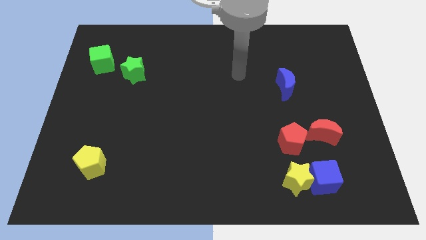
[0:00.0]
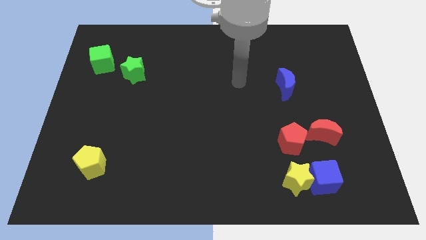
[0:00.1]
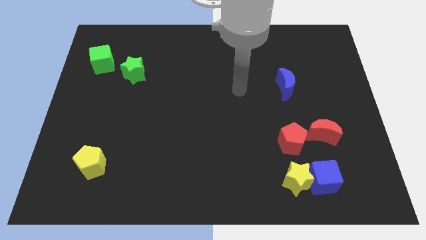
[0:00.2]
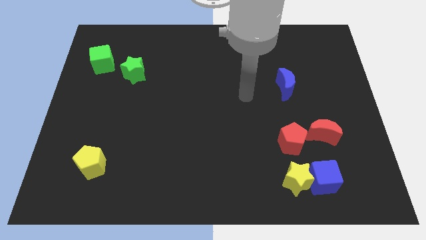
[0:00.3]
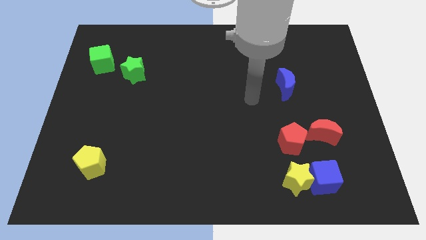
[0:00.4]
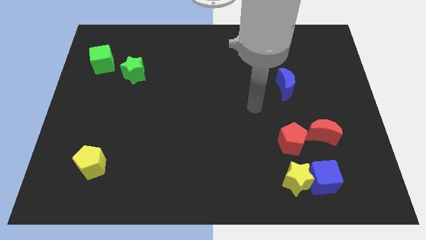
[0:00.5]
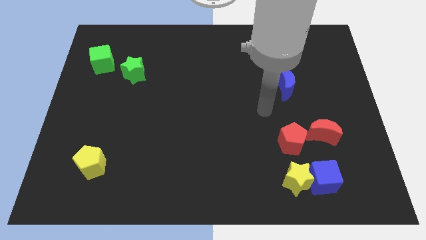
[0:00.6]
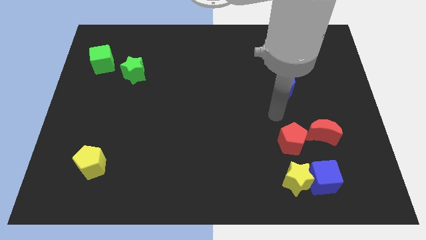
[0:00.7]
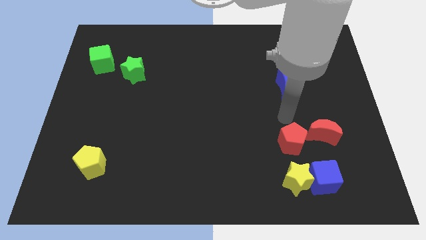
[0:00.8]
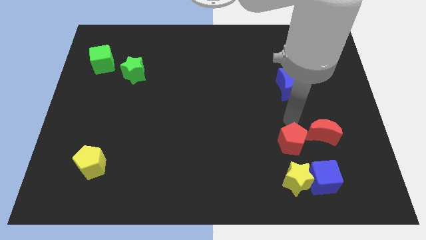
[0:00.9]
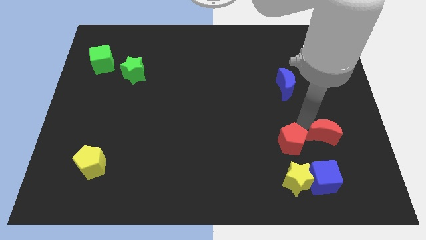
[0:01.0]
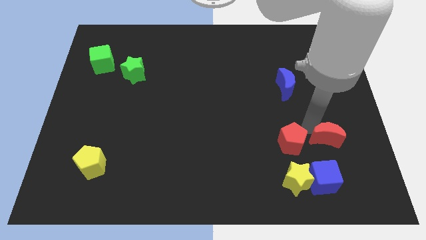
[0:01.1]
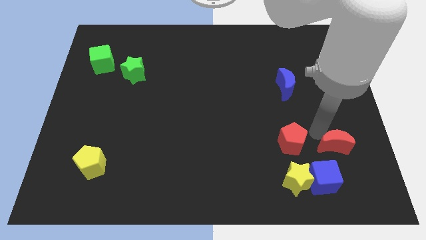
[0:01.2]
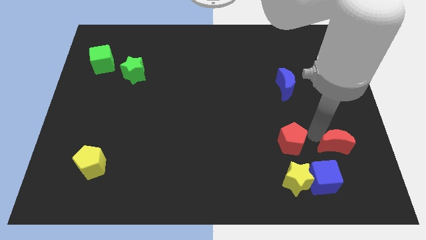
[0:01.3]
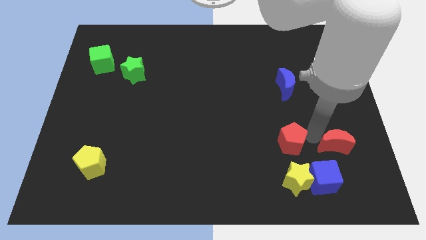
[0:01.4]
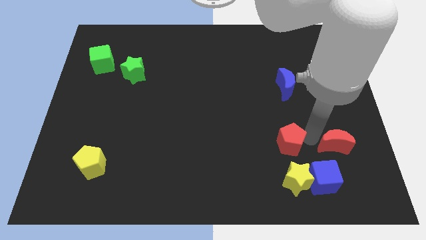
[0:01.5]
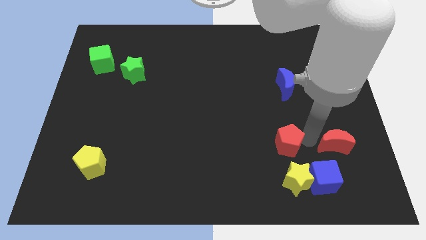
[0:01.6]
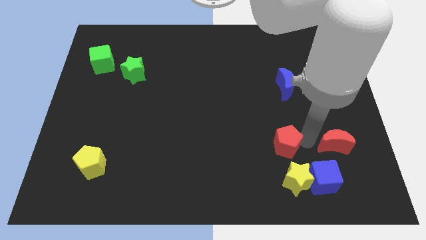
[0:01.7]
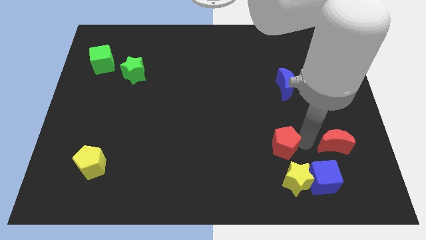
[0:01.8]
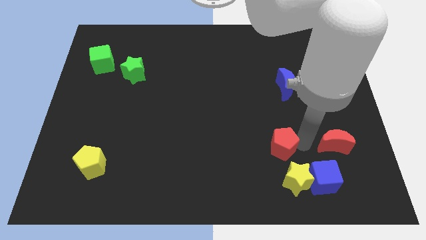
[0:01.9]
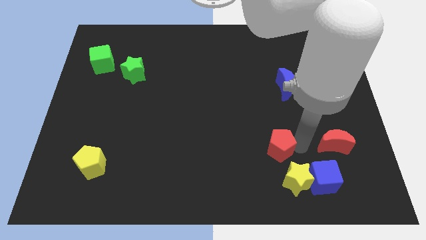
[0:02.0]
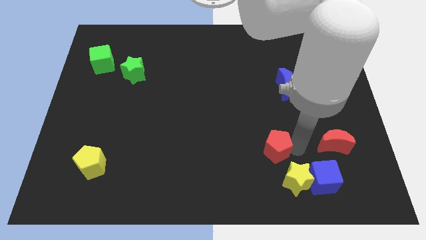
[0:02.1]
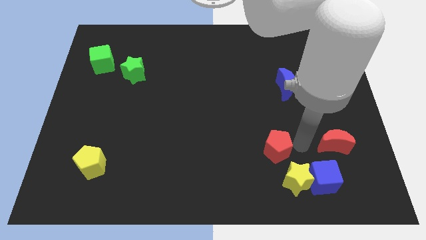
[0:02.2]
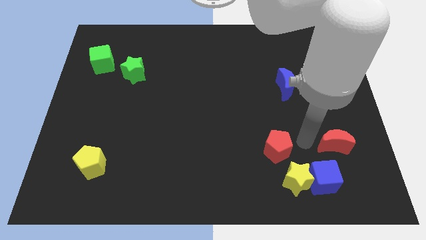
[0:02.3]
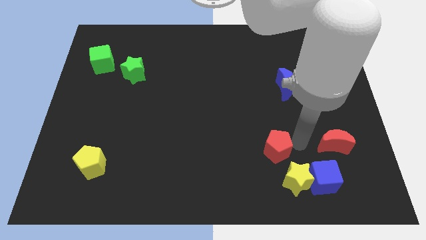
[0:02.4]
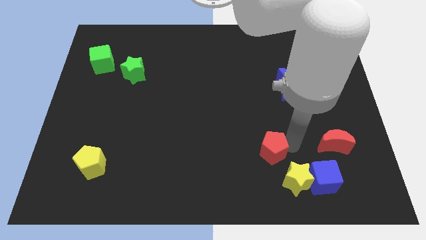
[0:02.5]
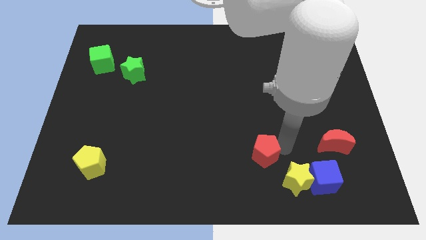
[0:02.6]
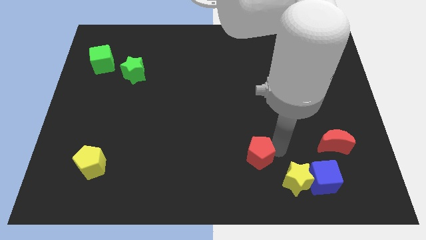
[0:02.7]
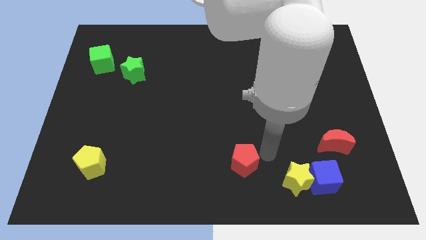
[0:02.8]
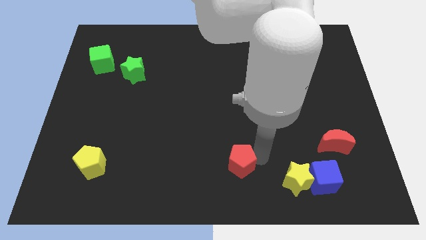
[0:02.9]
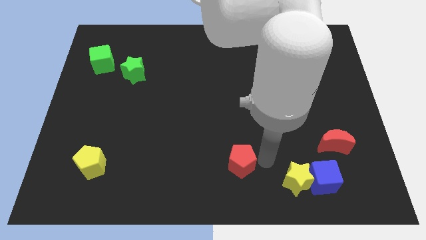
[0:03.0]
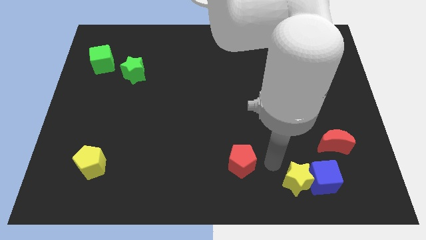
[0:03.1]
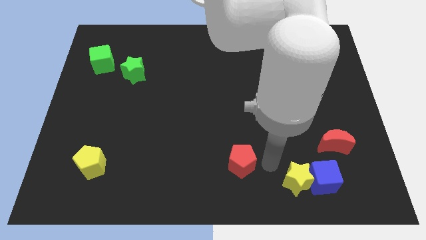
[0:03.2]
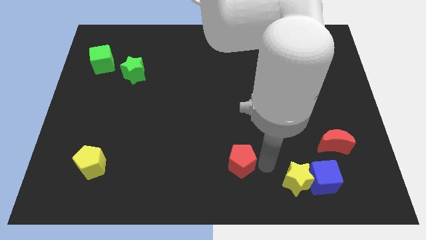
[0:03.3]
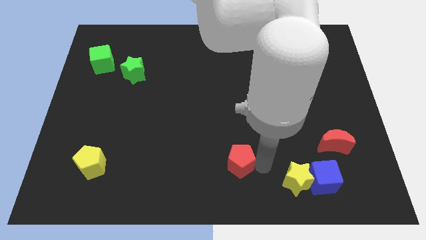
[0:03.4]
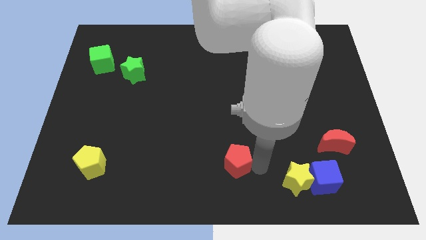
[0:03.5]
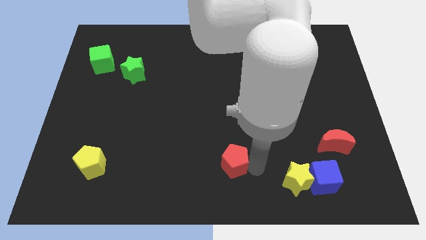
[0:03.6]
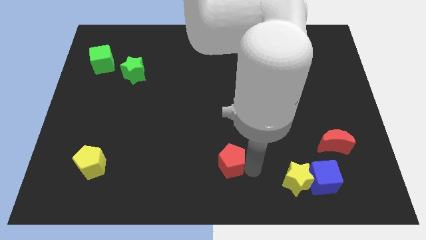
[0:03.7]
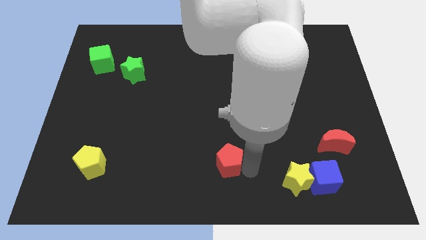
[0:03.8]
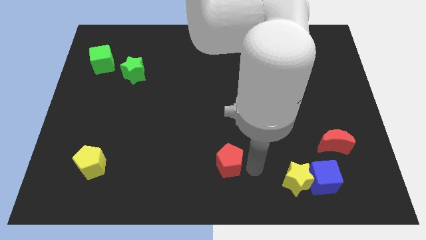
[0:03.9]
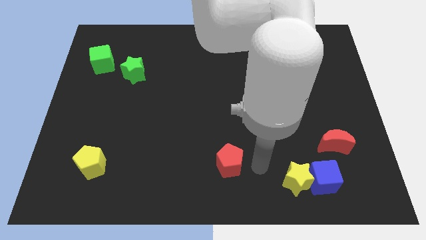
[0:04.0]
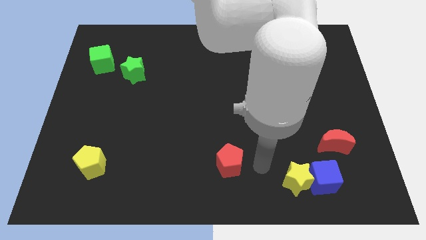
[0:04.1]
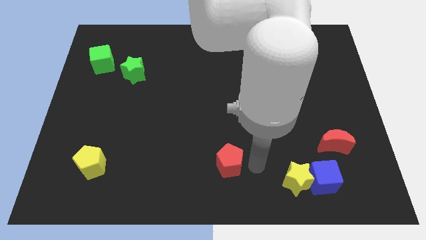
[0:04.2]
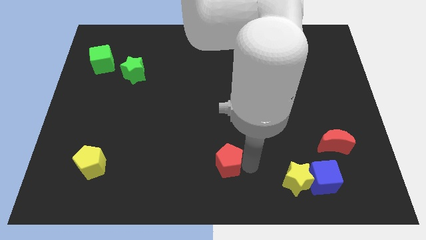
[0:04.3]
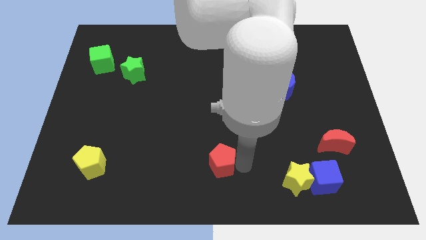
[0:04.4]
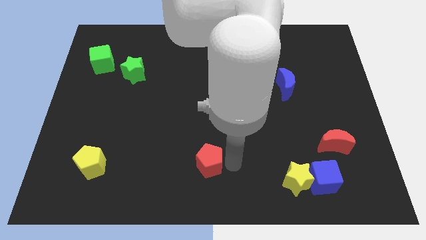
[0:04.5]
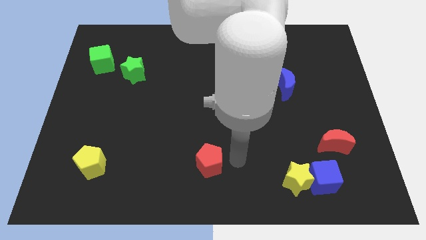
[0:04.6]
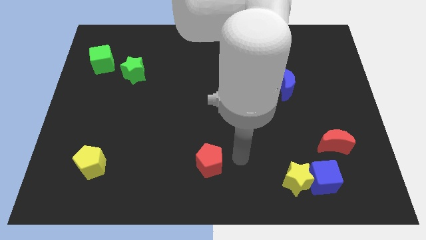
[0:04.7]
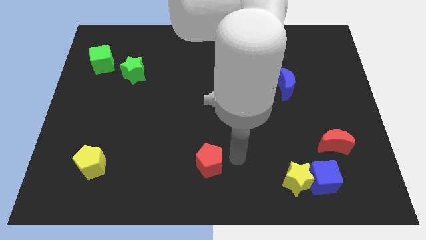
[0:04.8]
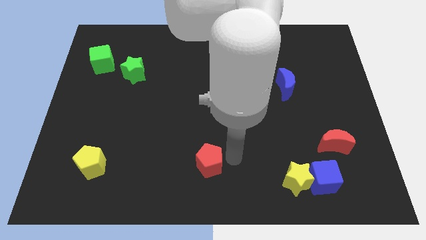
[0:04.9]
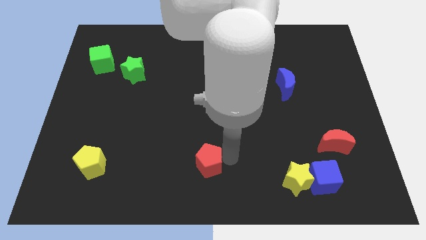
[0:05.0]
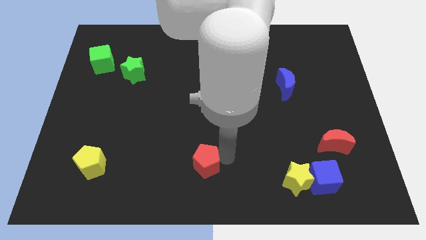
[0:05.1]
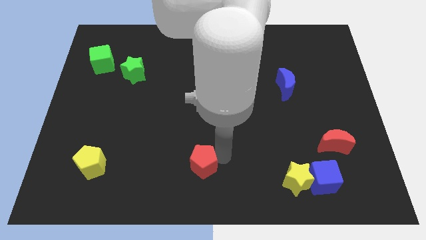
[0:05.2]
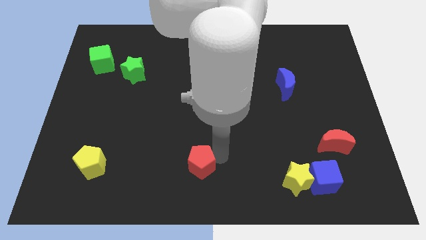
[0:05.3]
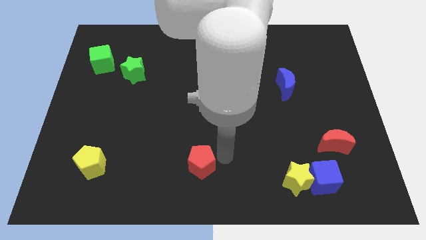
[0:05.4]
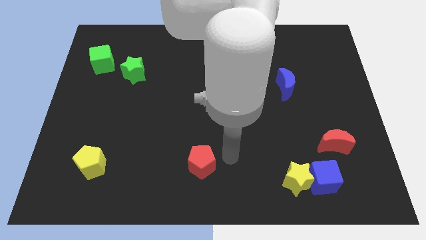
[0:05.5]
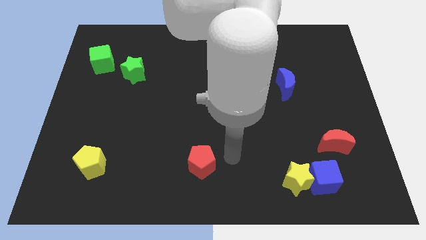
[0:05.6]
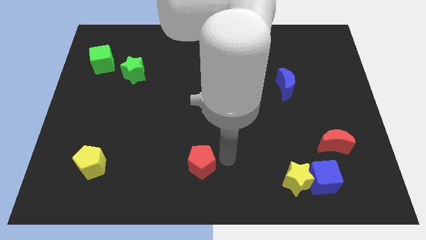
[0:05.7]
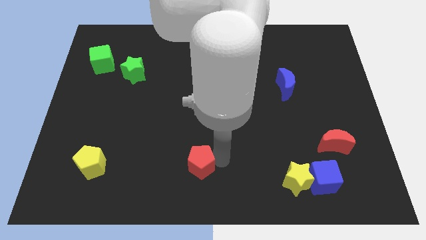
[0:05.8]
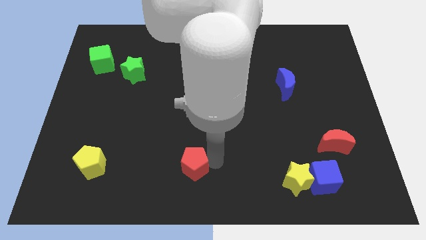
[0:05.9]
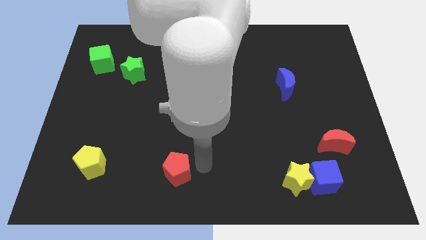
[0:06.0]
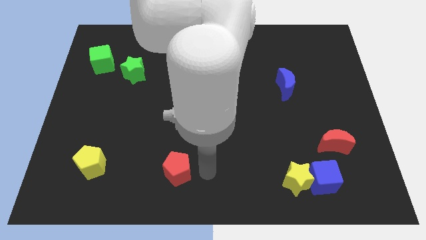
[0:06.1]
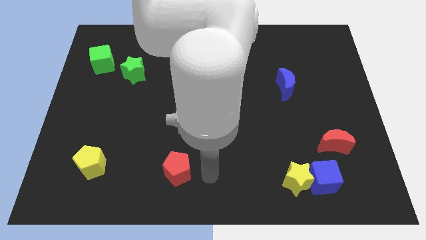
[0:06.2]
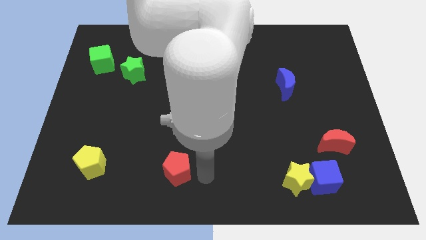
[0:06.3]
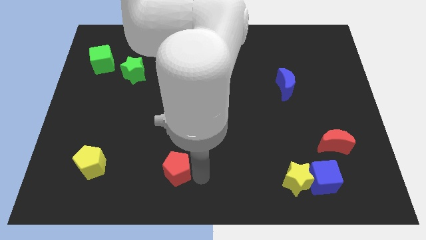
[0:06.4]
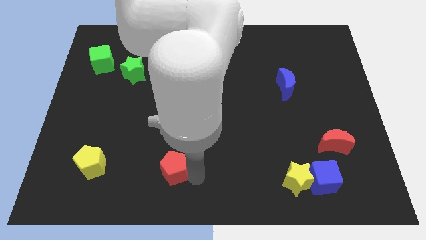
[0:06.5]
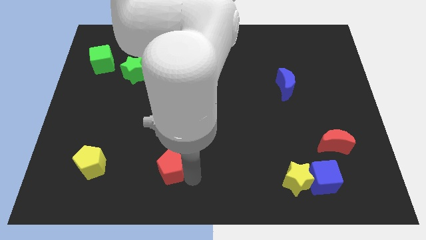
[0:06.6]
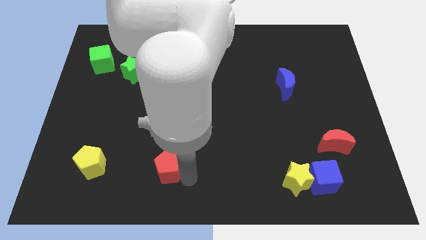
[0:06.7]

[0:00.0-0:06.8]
push the red pentagon to the right side of the yellow pentagon
